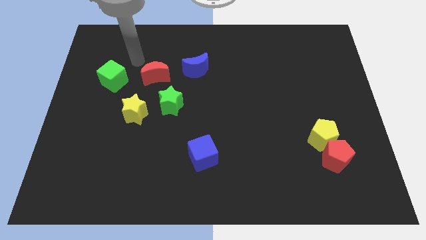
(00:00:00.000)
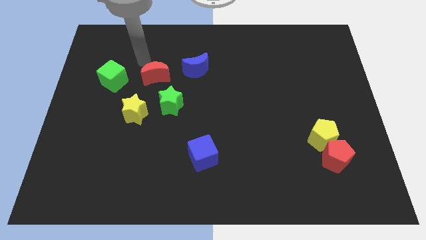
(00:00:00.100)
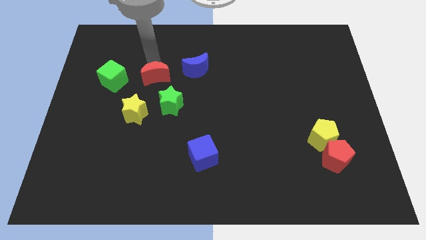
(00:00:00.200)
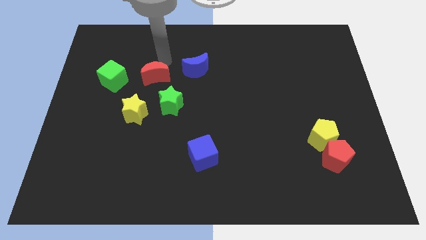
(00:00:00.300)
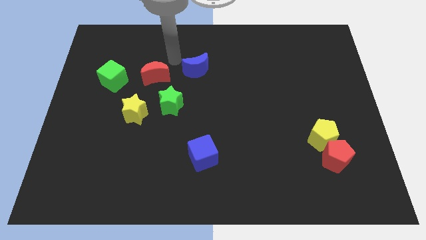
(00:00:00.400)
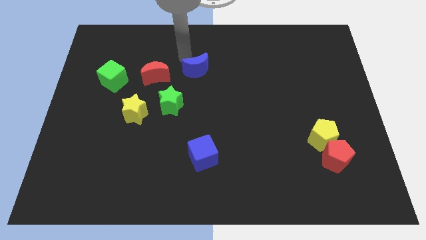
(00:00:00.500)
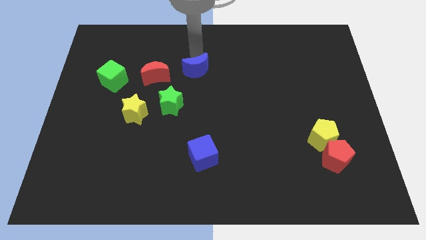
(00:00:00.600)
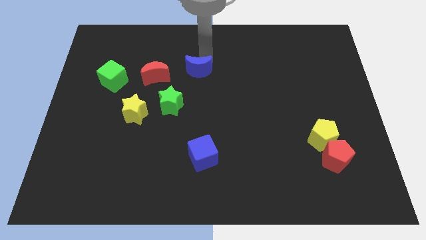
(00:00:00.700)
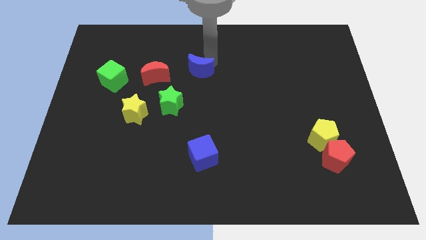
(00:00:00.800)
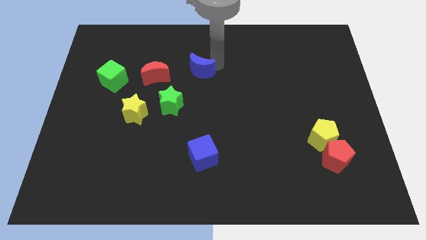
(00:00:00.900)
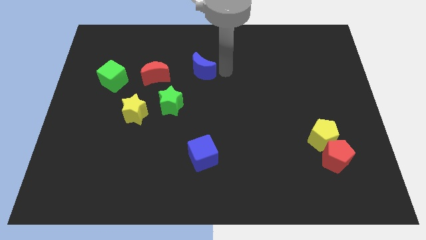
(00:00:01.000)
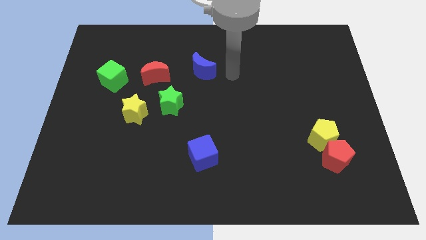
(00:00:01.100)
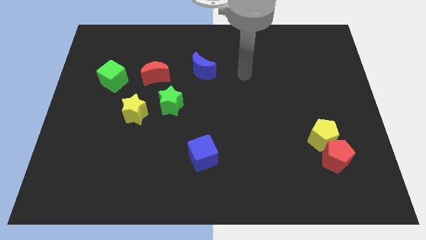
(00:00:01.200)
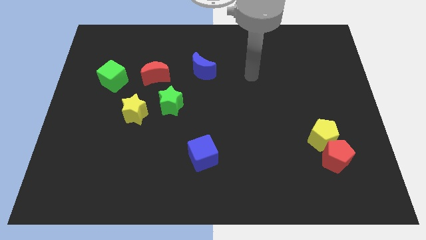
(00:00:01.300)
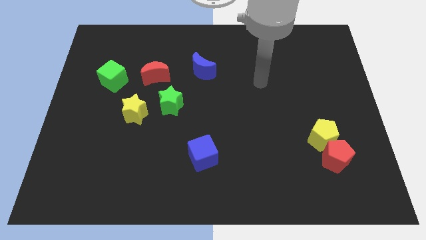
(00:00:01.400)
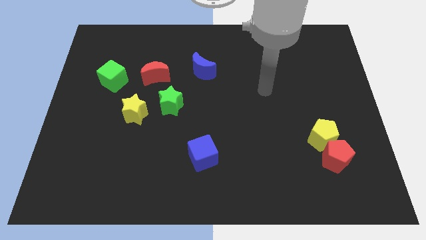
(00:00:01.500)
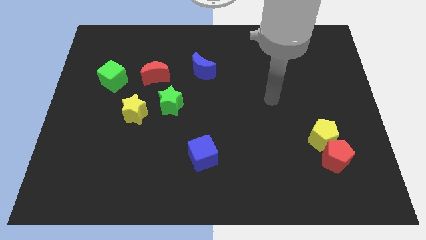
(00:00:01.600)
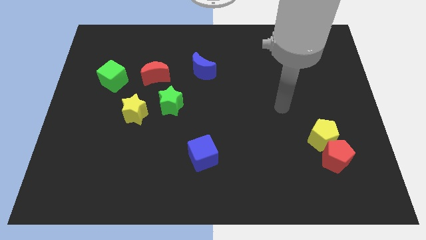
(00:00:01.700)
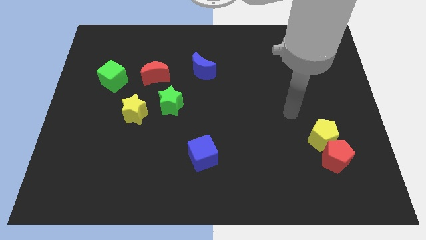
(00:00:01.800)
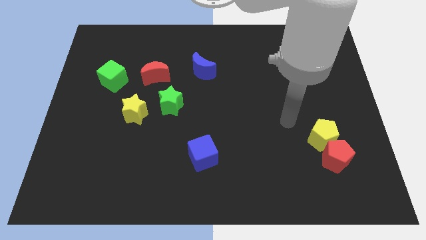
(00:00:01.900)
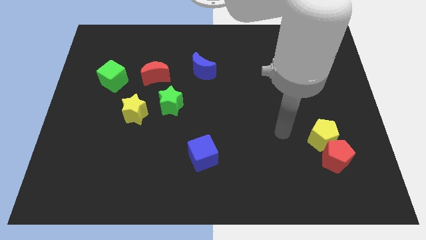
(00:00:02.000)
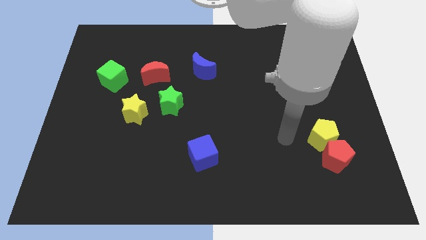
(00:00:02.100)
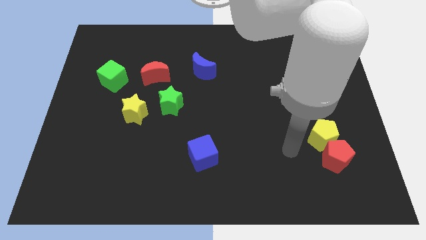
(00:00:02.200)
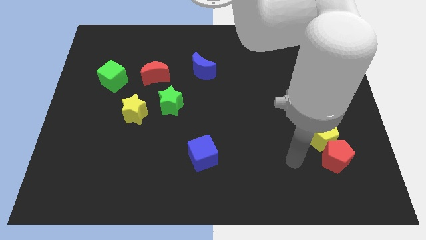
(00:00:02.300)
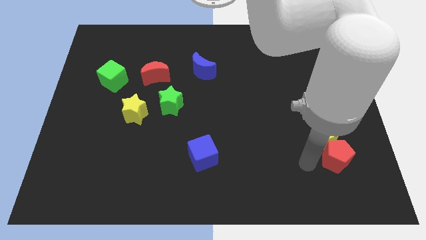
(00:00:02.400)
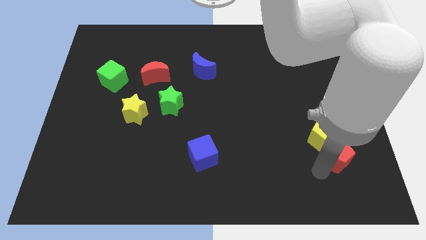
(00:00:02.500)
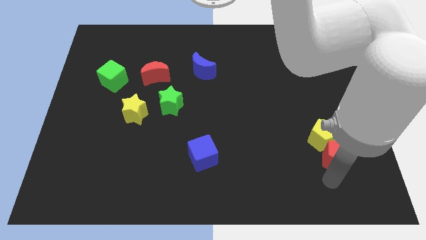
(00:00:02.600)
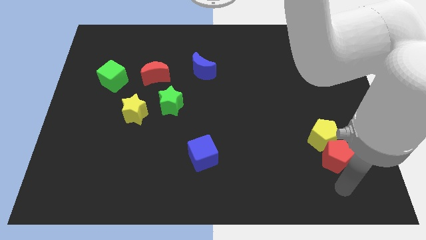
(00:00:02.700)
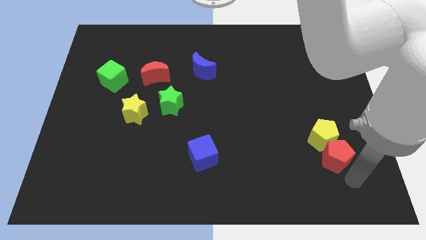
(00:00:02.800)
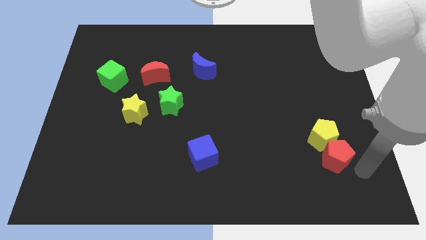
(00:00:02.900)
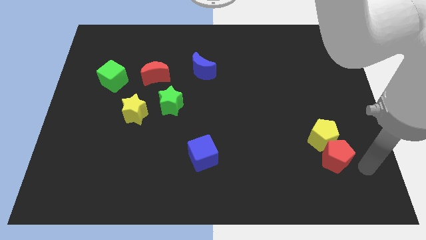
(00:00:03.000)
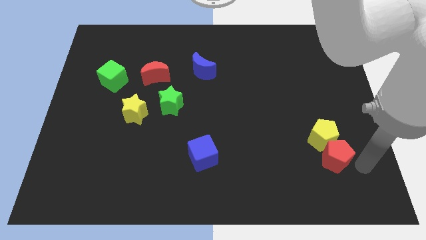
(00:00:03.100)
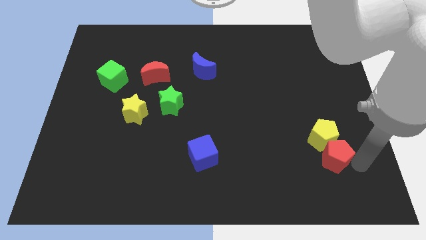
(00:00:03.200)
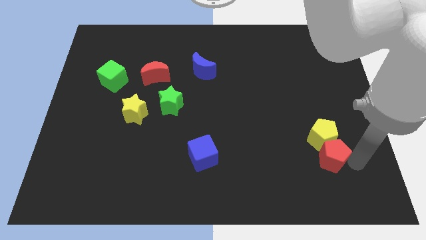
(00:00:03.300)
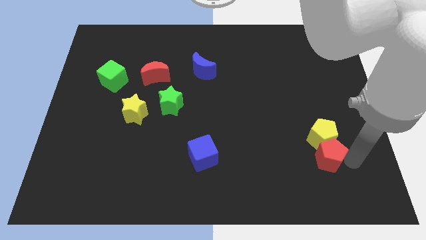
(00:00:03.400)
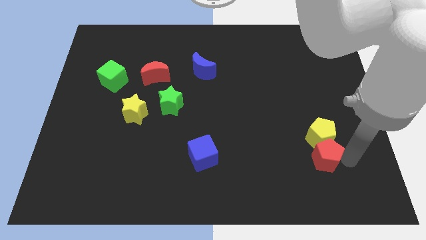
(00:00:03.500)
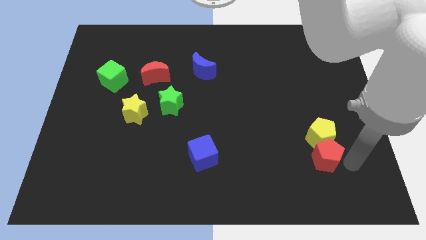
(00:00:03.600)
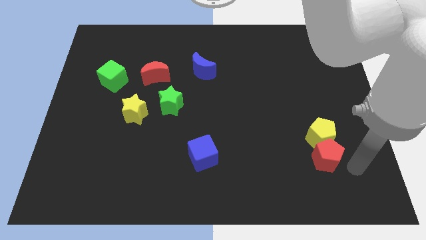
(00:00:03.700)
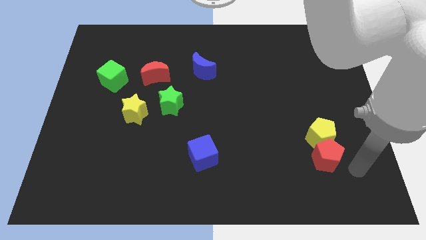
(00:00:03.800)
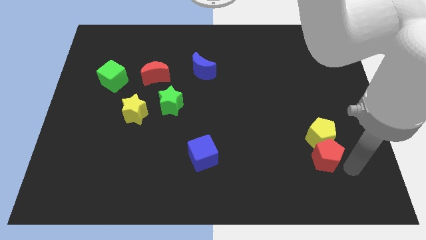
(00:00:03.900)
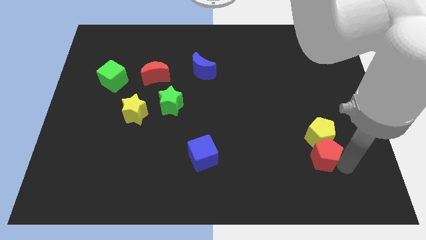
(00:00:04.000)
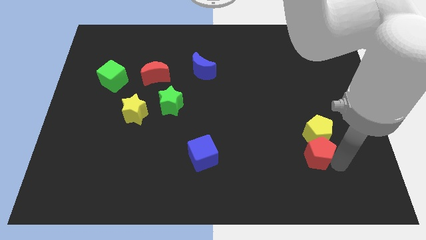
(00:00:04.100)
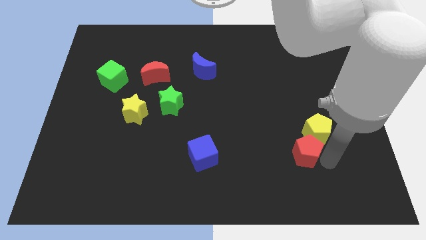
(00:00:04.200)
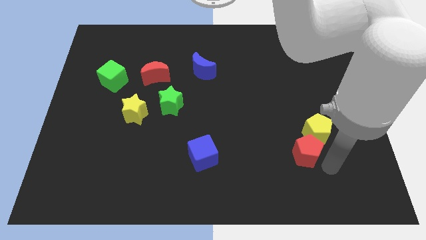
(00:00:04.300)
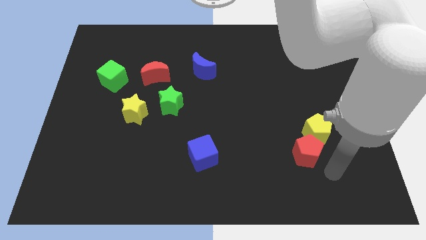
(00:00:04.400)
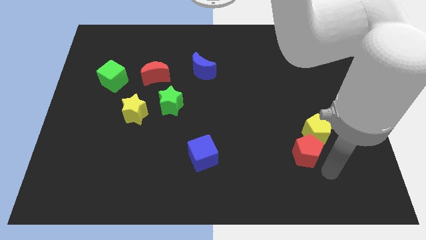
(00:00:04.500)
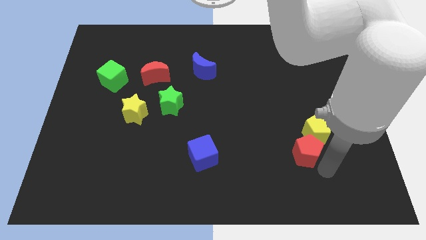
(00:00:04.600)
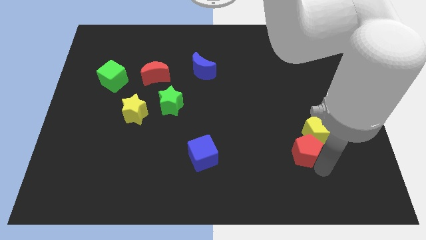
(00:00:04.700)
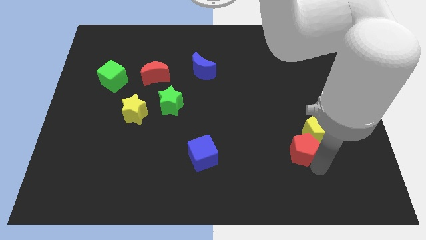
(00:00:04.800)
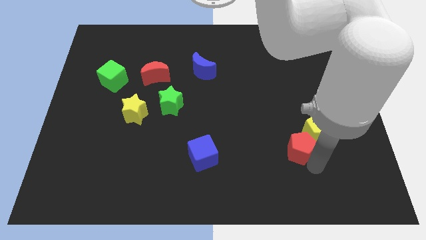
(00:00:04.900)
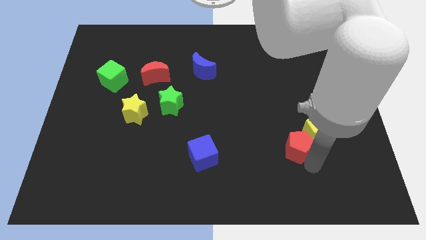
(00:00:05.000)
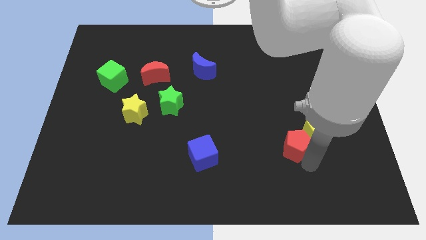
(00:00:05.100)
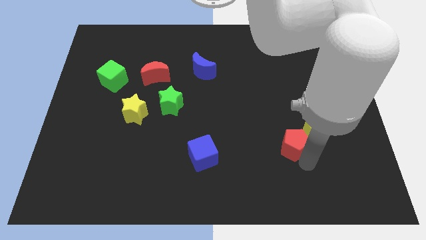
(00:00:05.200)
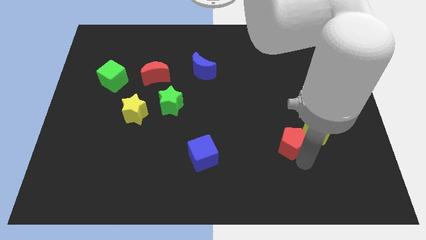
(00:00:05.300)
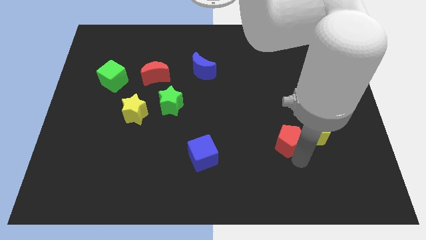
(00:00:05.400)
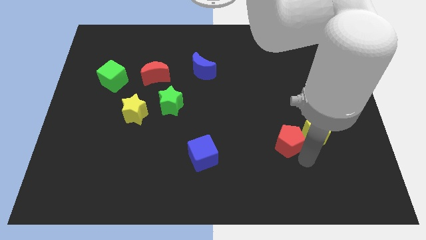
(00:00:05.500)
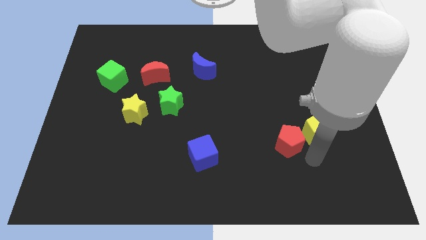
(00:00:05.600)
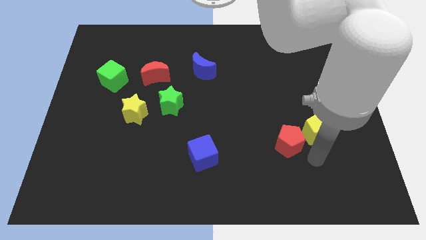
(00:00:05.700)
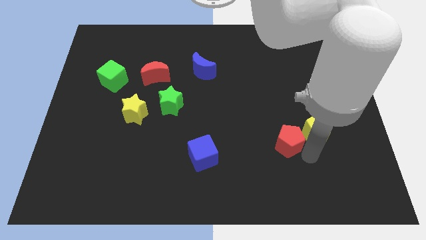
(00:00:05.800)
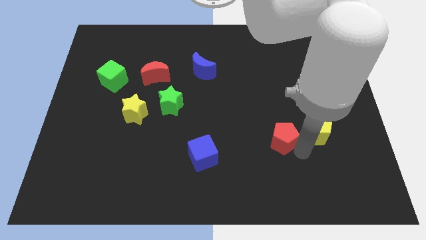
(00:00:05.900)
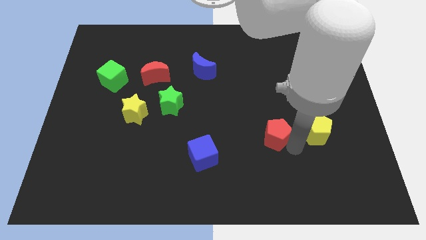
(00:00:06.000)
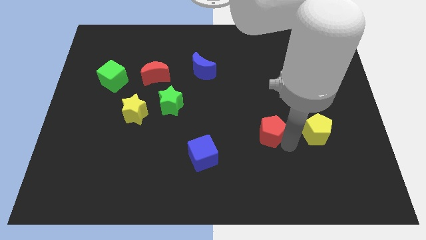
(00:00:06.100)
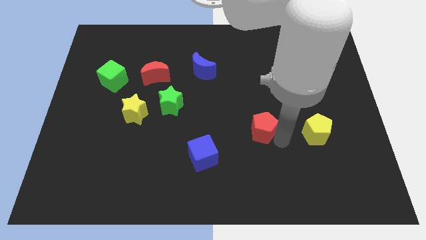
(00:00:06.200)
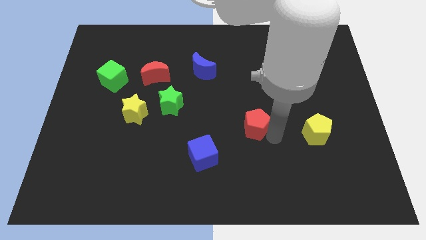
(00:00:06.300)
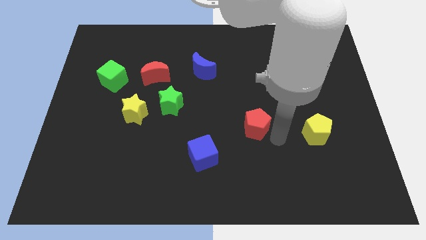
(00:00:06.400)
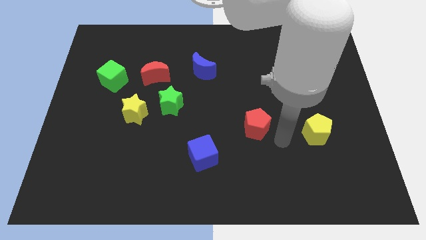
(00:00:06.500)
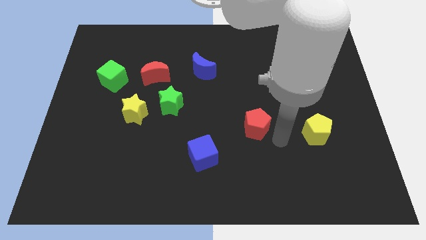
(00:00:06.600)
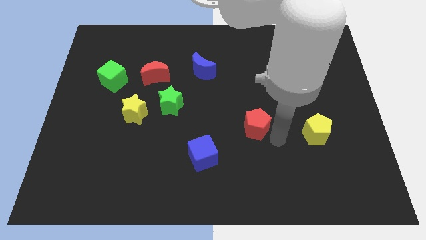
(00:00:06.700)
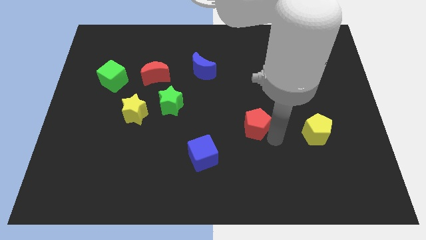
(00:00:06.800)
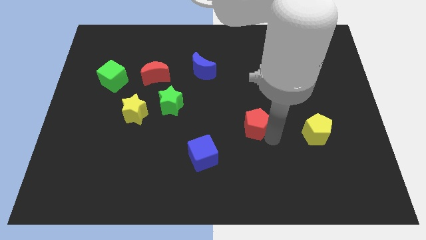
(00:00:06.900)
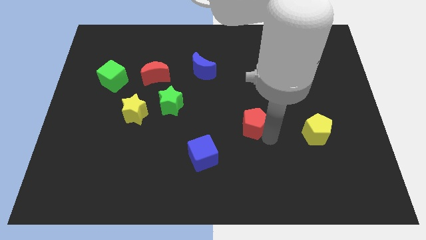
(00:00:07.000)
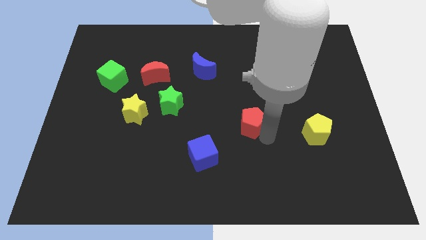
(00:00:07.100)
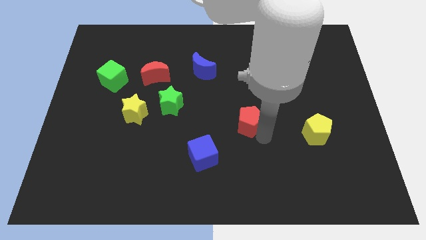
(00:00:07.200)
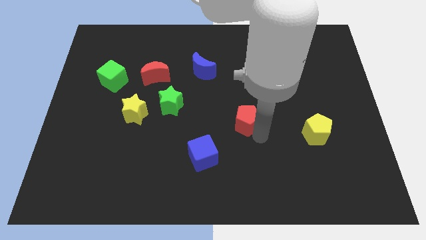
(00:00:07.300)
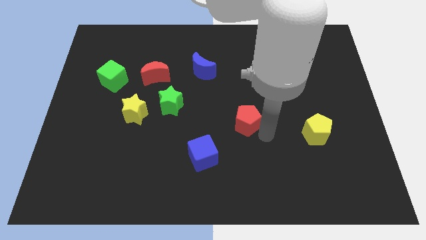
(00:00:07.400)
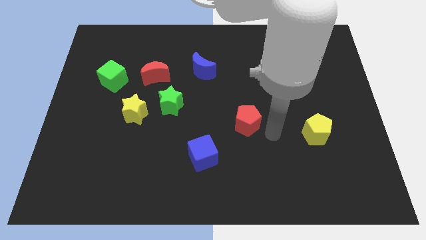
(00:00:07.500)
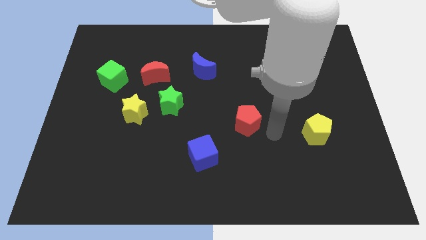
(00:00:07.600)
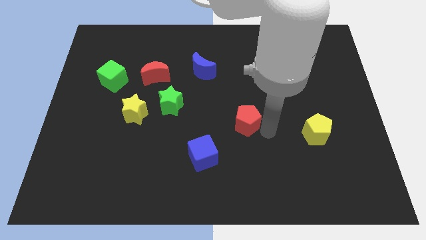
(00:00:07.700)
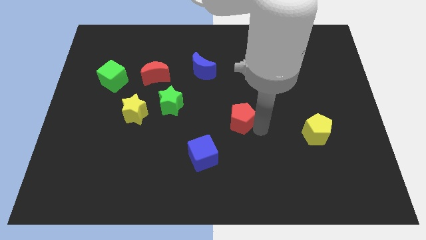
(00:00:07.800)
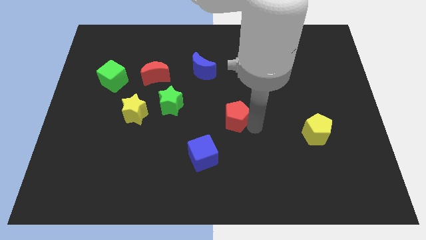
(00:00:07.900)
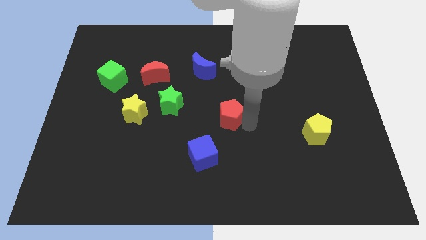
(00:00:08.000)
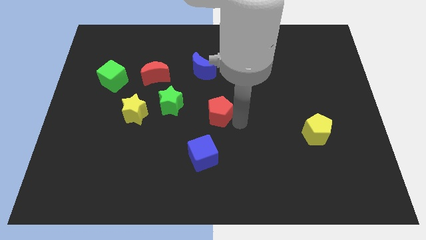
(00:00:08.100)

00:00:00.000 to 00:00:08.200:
put the red pentagon below the blue moon
